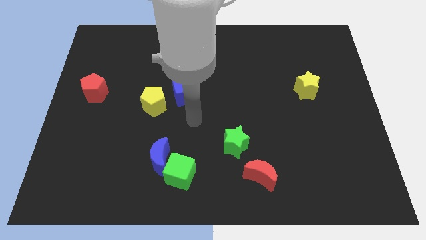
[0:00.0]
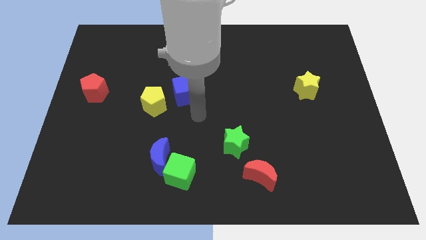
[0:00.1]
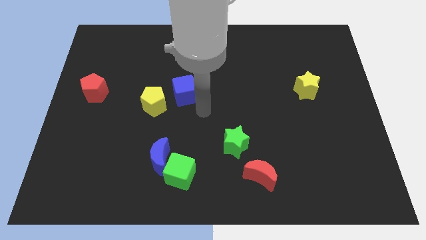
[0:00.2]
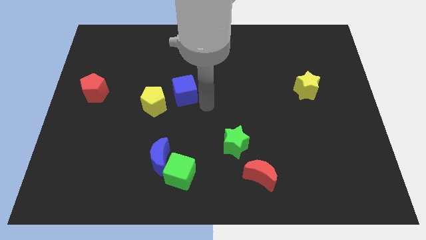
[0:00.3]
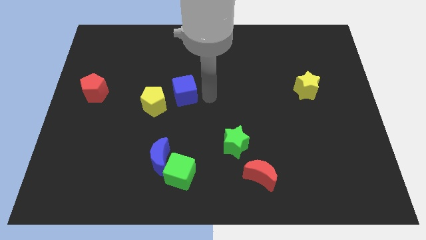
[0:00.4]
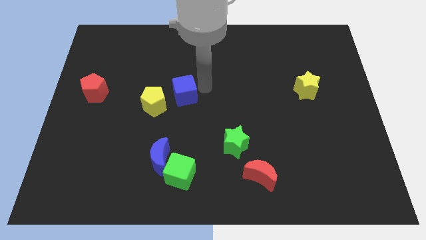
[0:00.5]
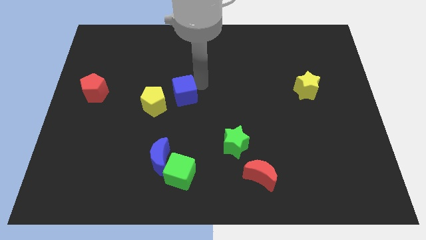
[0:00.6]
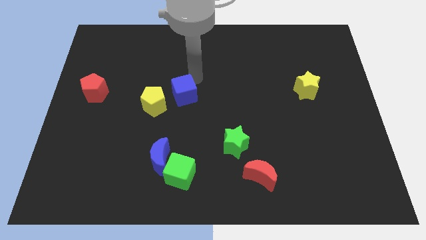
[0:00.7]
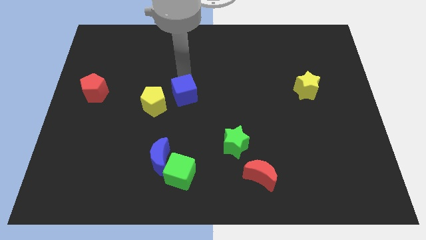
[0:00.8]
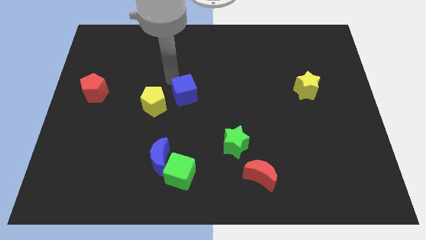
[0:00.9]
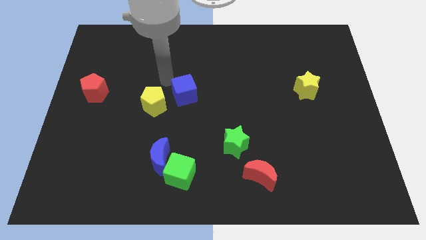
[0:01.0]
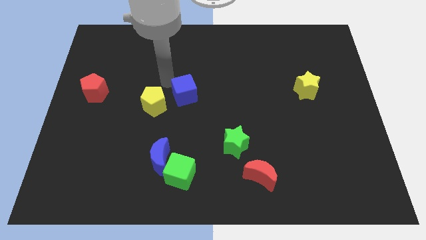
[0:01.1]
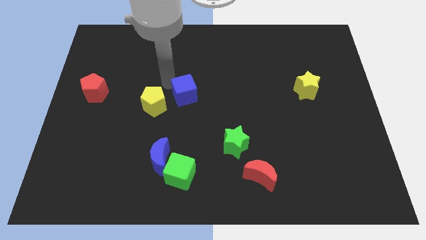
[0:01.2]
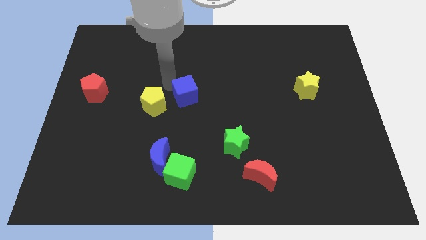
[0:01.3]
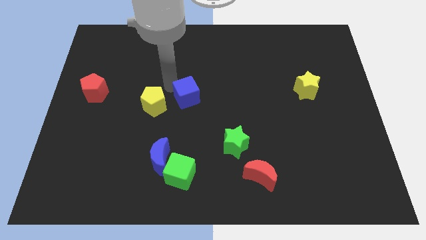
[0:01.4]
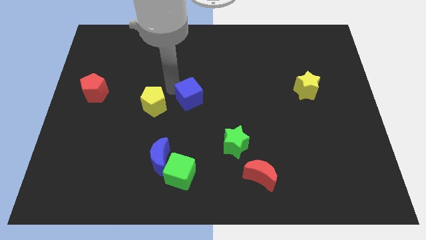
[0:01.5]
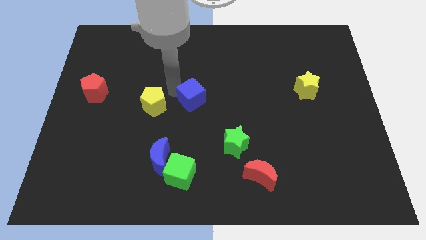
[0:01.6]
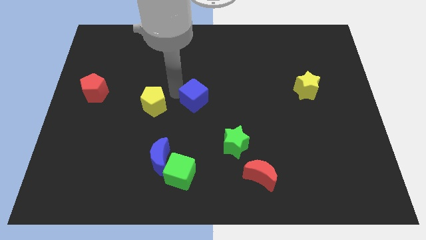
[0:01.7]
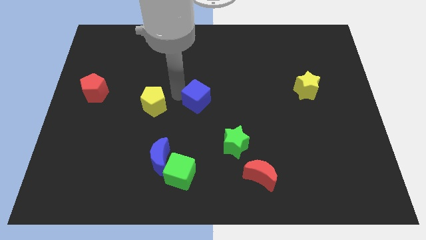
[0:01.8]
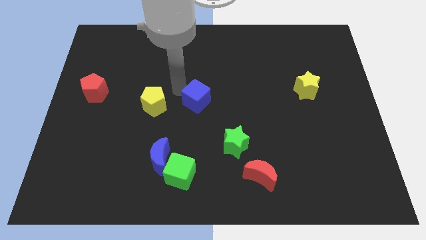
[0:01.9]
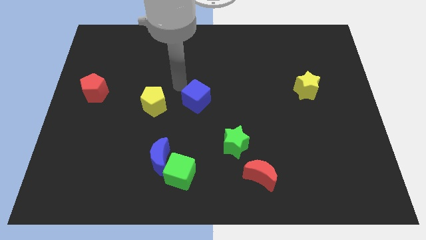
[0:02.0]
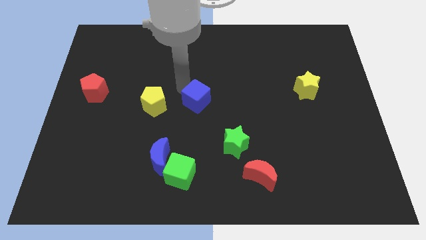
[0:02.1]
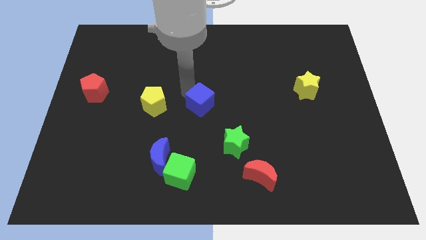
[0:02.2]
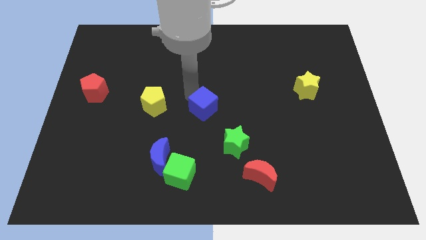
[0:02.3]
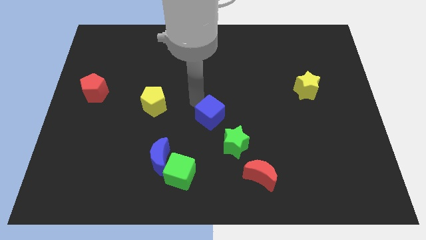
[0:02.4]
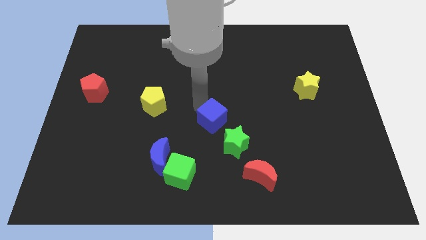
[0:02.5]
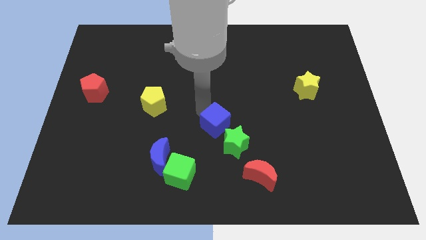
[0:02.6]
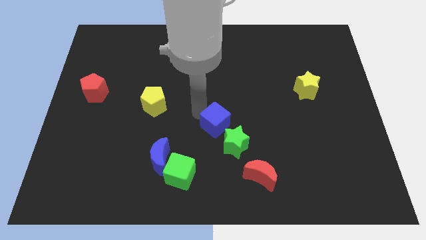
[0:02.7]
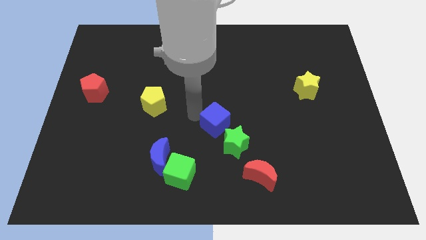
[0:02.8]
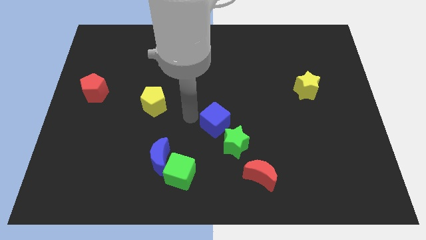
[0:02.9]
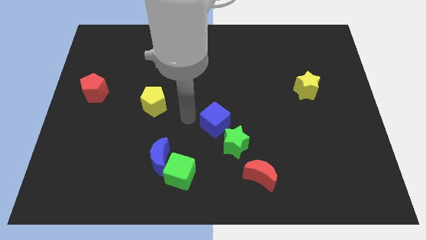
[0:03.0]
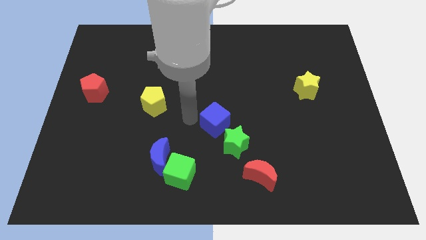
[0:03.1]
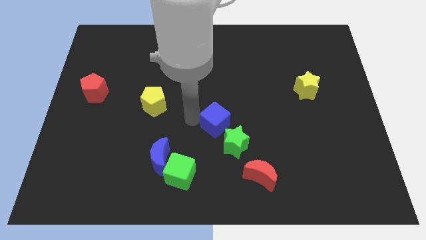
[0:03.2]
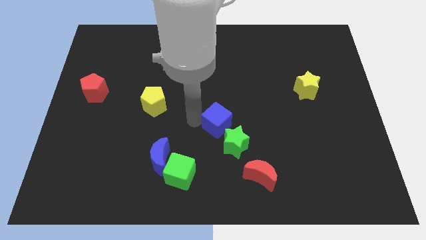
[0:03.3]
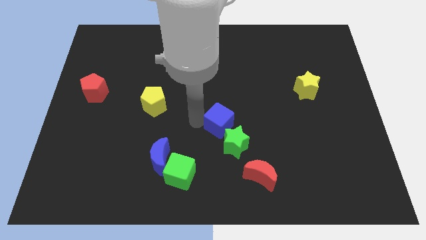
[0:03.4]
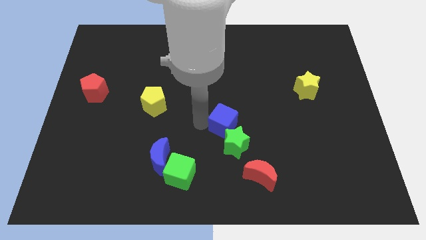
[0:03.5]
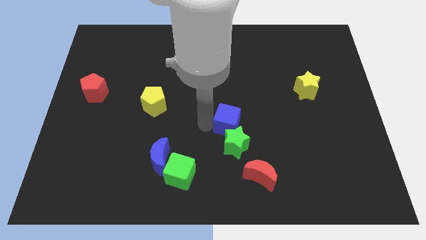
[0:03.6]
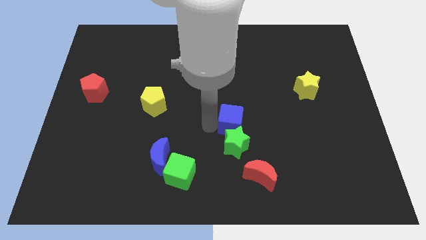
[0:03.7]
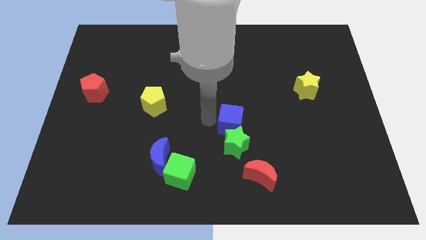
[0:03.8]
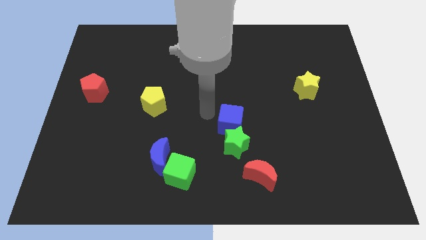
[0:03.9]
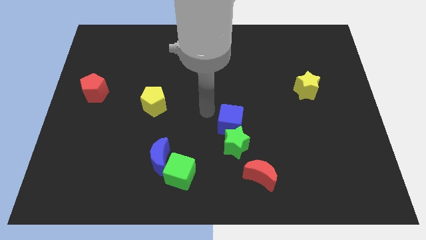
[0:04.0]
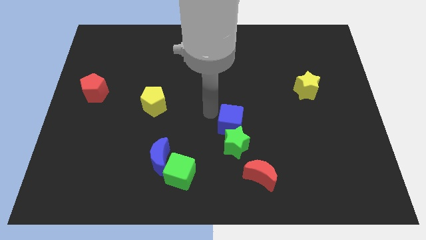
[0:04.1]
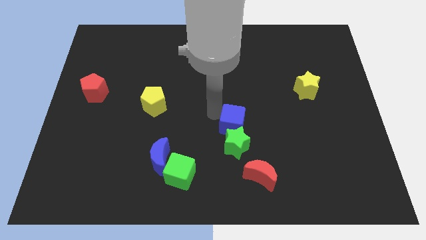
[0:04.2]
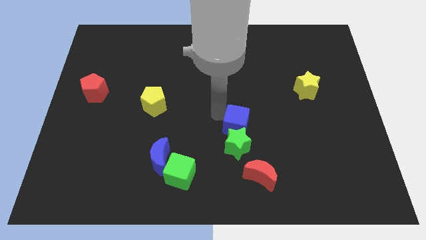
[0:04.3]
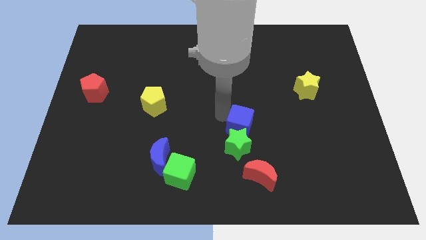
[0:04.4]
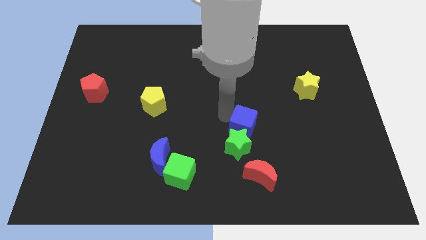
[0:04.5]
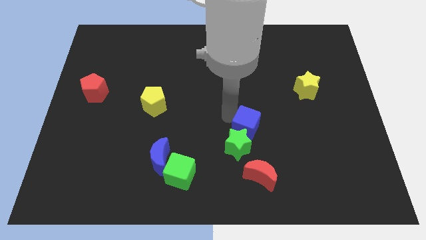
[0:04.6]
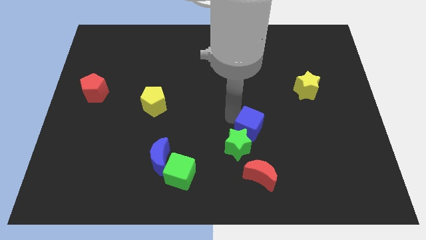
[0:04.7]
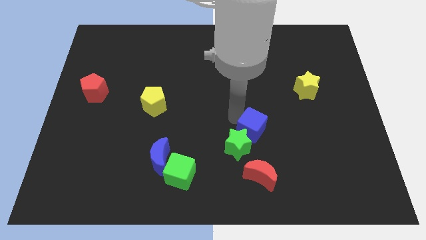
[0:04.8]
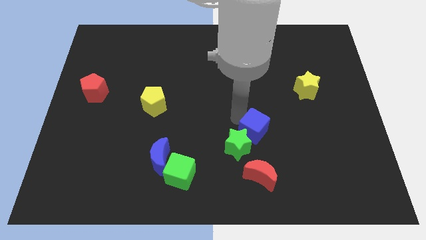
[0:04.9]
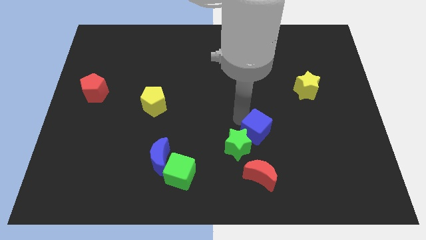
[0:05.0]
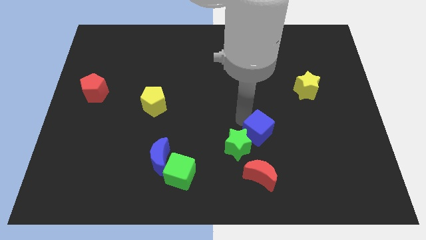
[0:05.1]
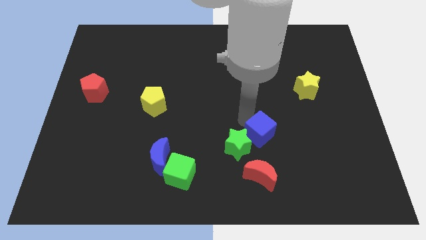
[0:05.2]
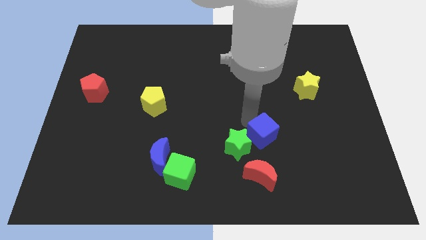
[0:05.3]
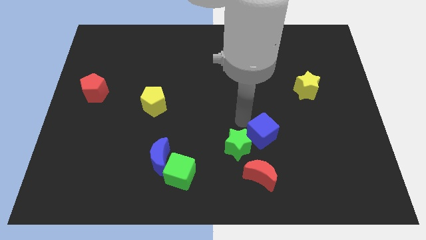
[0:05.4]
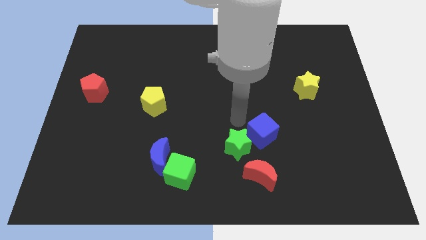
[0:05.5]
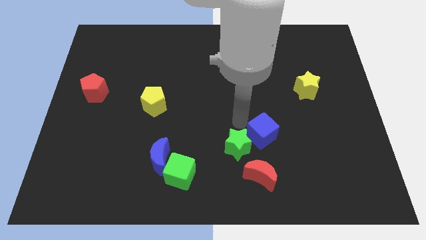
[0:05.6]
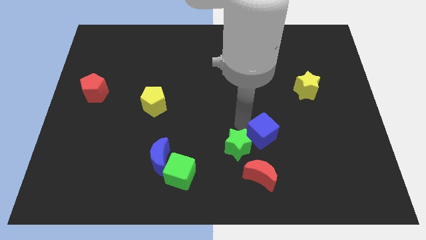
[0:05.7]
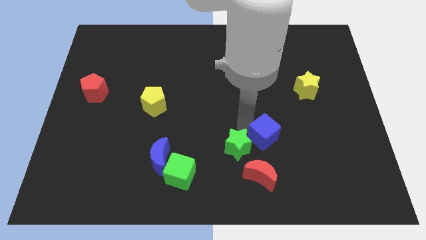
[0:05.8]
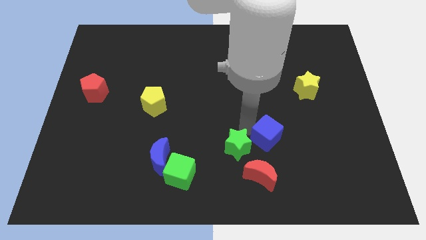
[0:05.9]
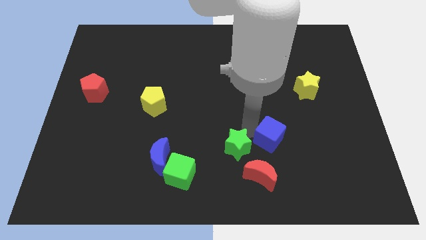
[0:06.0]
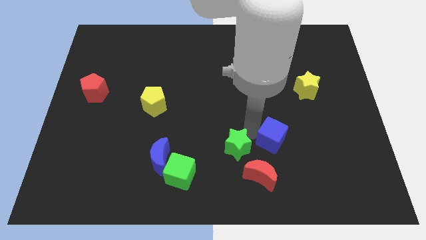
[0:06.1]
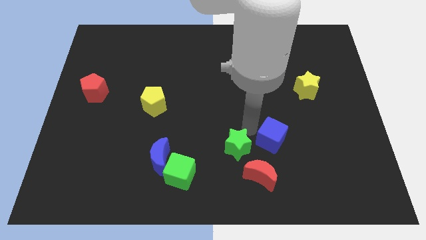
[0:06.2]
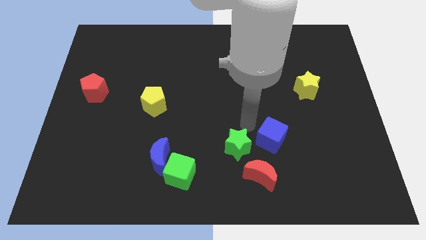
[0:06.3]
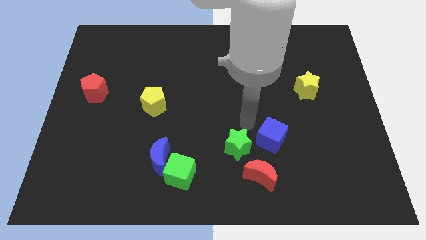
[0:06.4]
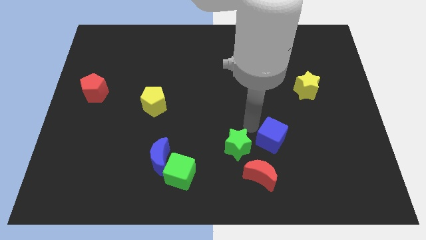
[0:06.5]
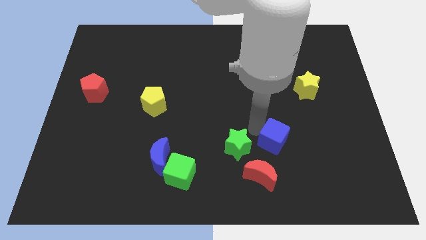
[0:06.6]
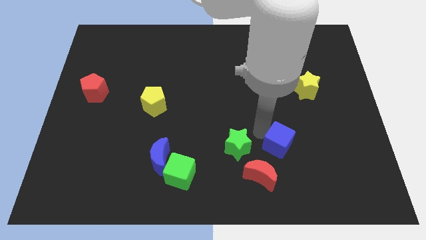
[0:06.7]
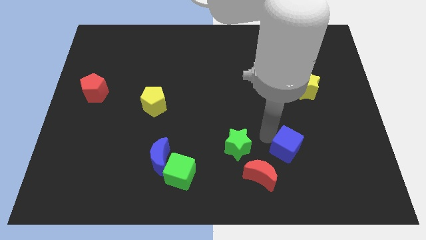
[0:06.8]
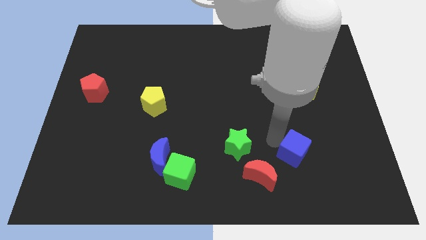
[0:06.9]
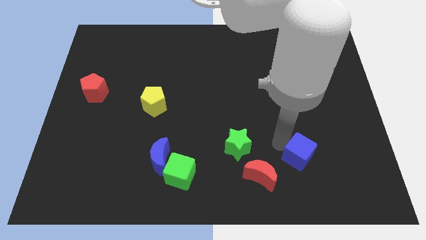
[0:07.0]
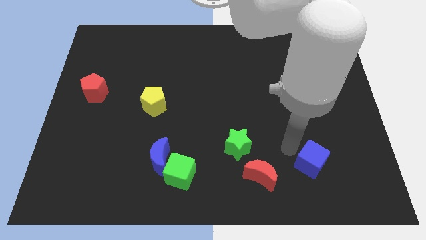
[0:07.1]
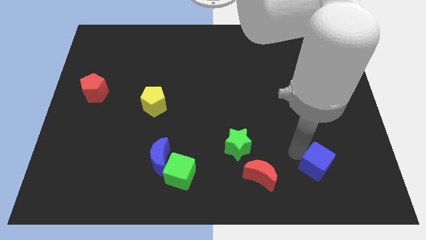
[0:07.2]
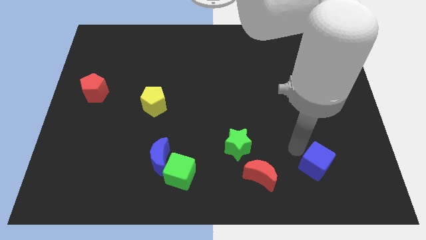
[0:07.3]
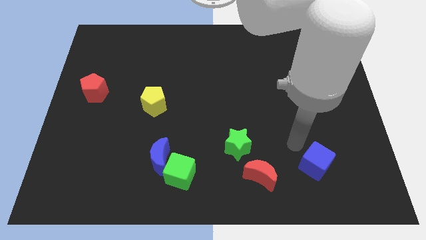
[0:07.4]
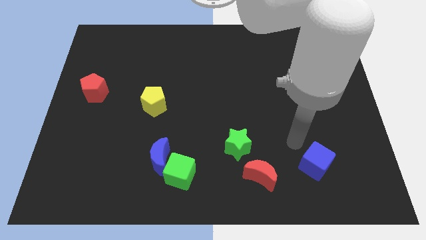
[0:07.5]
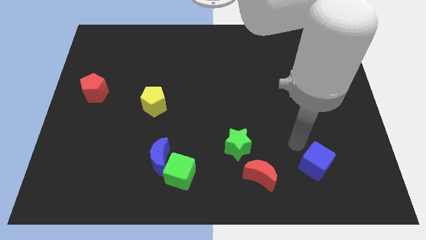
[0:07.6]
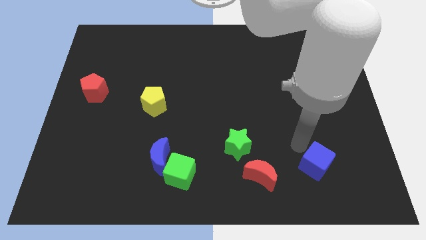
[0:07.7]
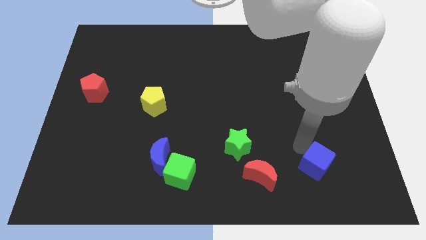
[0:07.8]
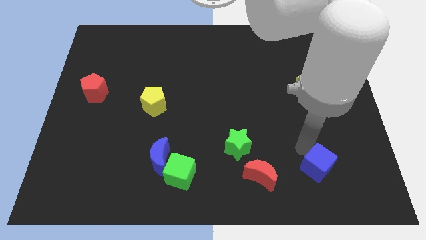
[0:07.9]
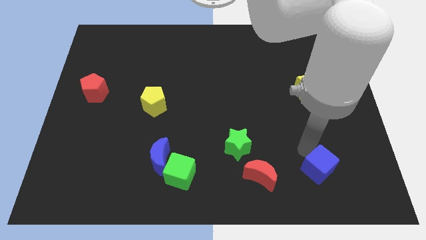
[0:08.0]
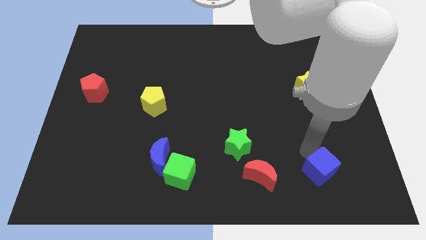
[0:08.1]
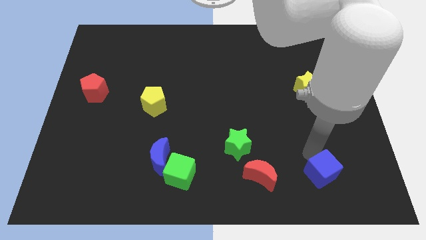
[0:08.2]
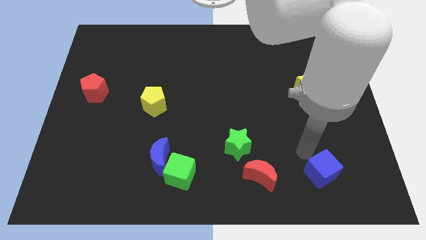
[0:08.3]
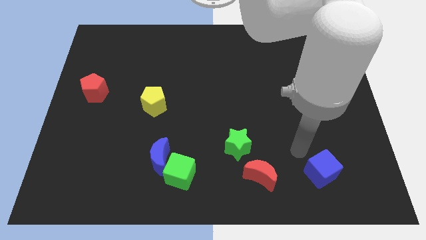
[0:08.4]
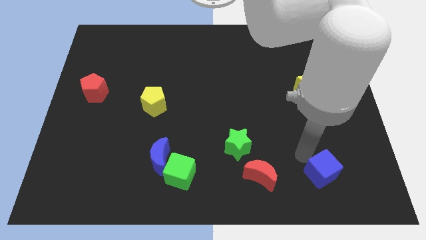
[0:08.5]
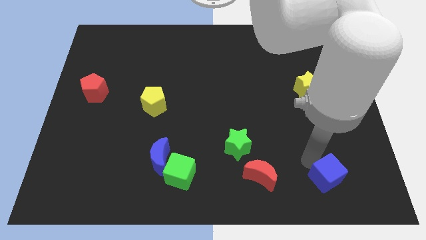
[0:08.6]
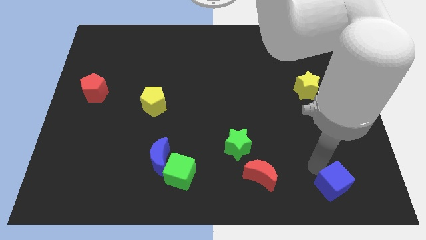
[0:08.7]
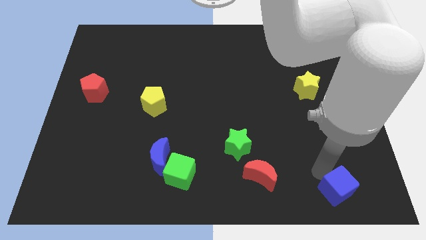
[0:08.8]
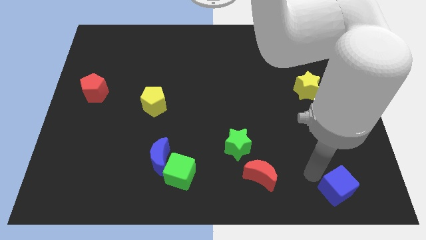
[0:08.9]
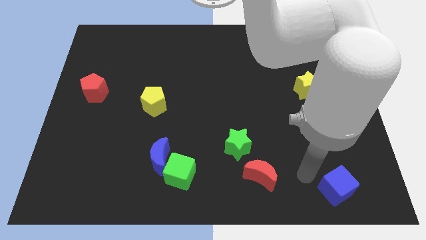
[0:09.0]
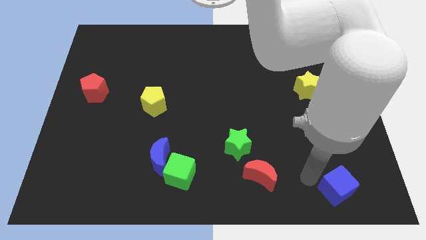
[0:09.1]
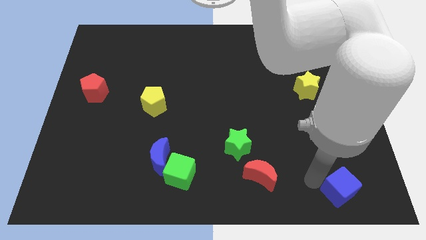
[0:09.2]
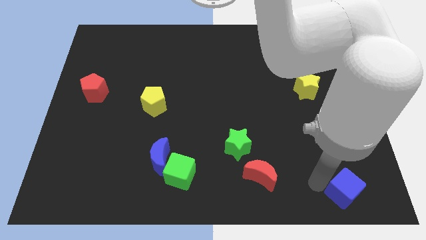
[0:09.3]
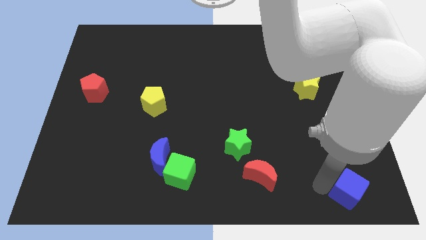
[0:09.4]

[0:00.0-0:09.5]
move the blue cube to the bottom right
